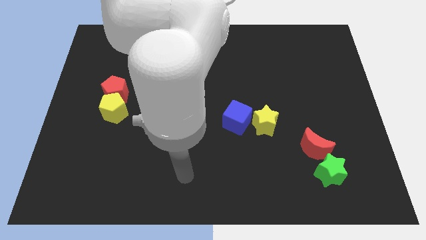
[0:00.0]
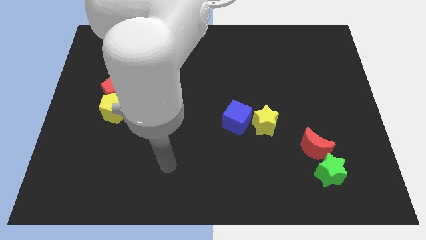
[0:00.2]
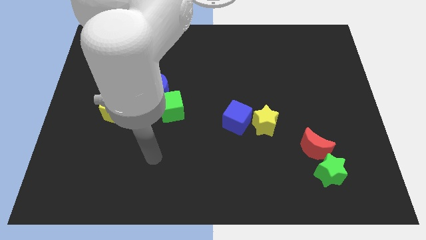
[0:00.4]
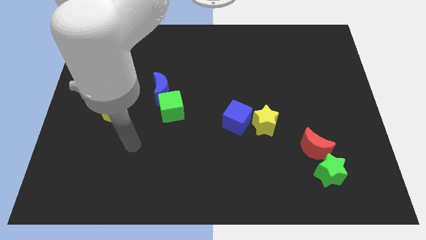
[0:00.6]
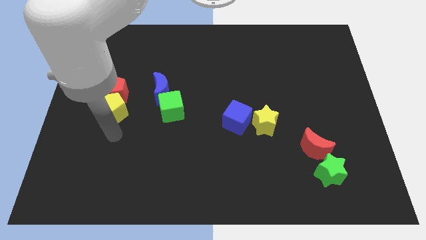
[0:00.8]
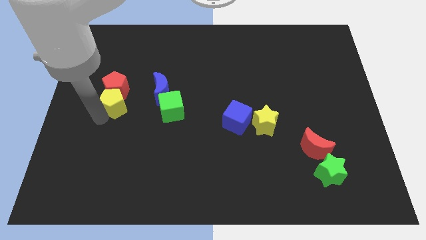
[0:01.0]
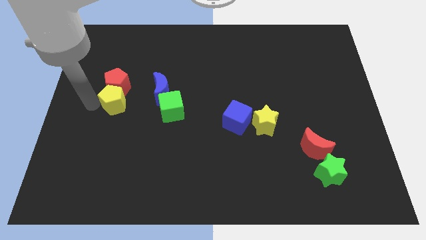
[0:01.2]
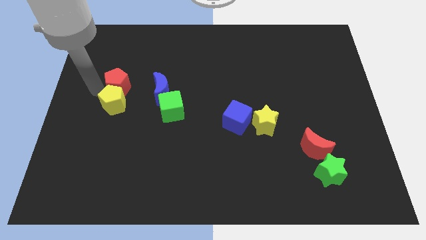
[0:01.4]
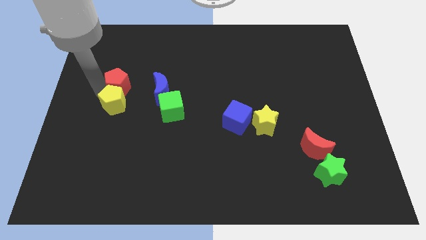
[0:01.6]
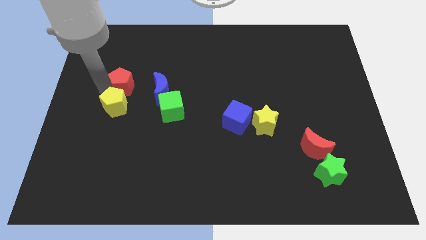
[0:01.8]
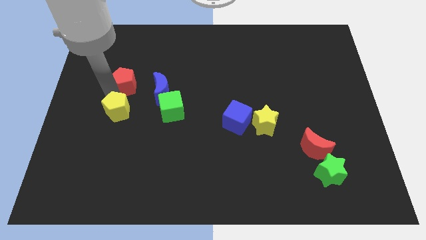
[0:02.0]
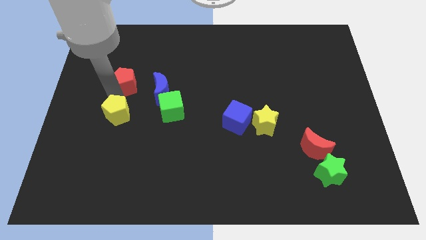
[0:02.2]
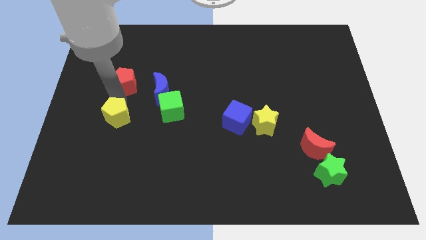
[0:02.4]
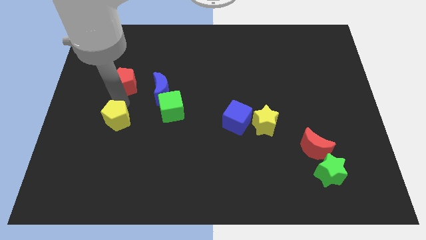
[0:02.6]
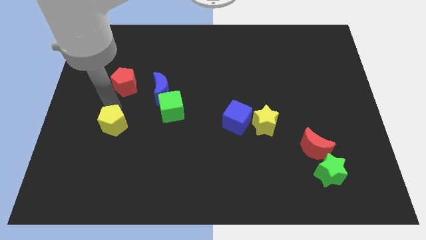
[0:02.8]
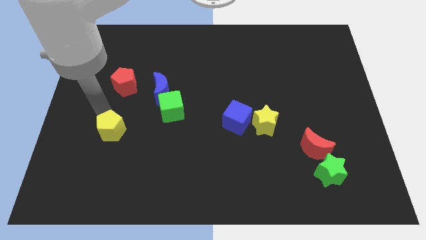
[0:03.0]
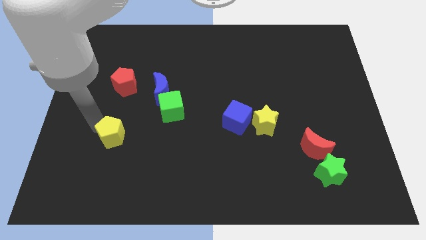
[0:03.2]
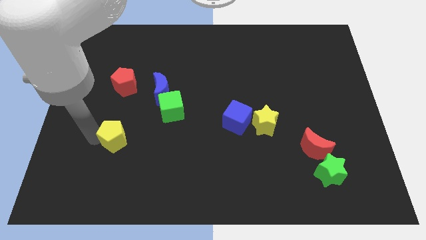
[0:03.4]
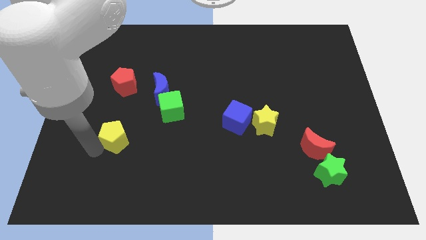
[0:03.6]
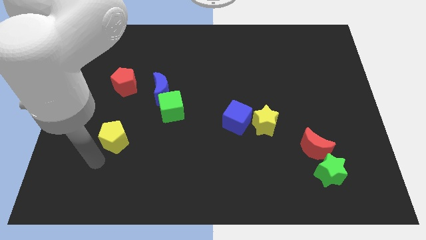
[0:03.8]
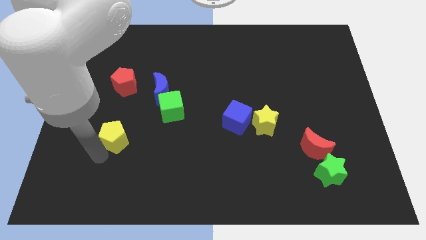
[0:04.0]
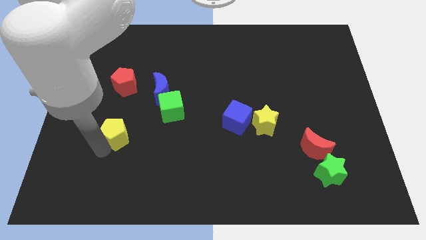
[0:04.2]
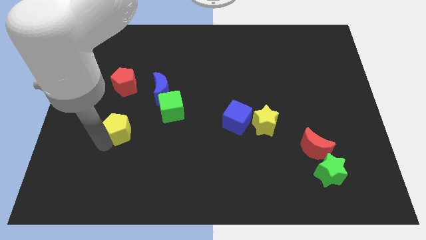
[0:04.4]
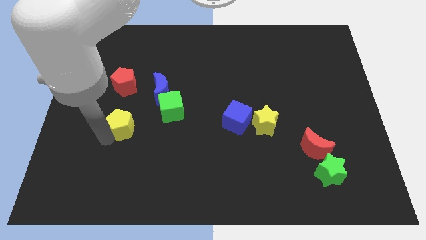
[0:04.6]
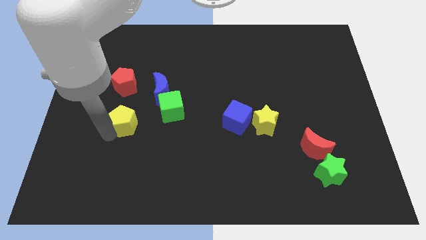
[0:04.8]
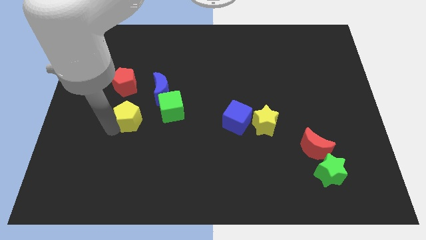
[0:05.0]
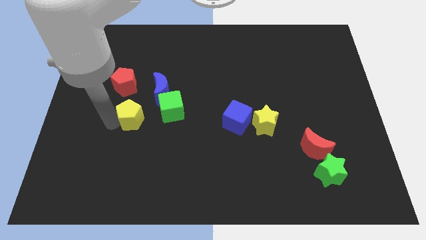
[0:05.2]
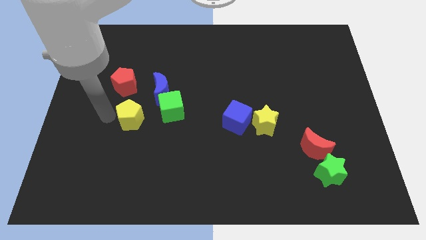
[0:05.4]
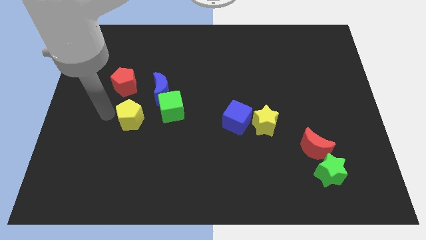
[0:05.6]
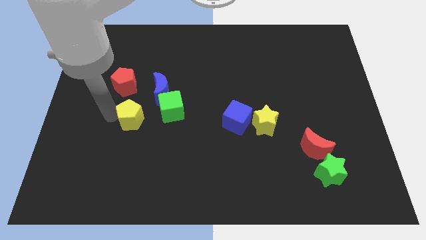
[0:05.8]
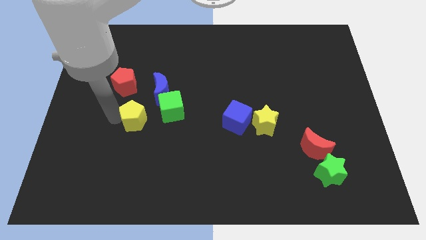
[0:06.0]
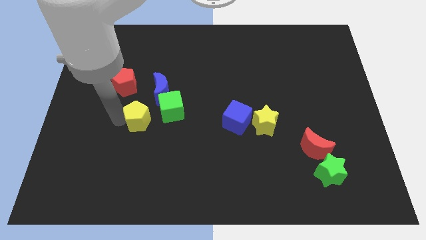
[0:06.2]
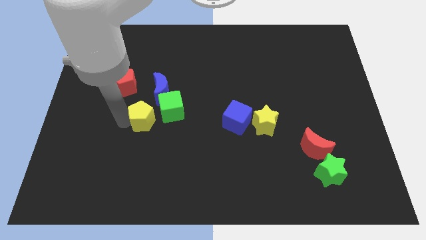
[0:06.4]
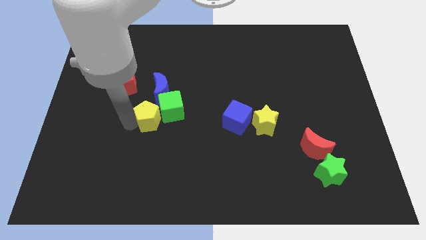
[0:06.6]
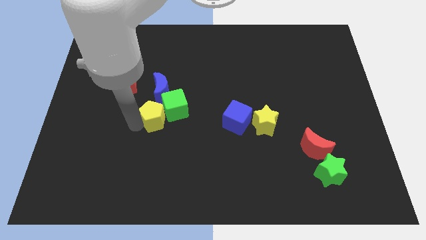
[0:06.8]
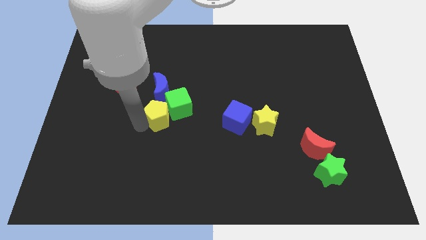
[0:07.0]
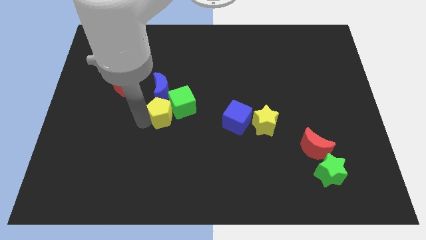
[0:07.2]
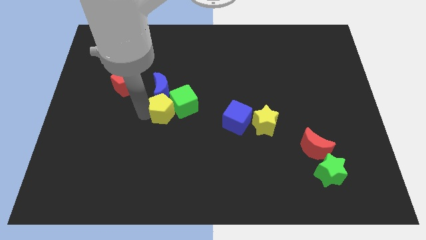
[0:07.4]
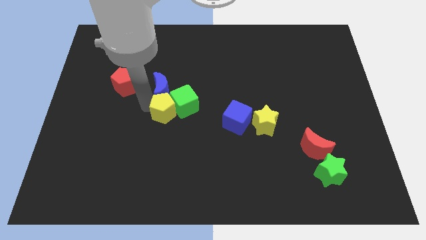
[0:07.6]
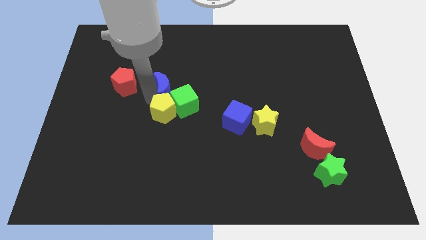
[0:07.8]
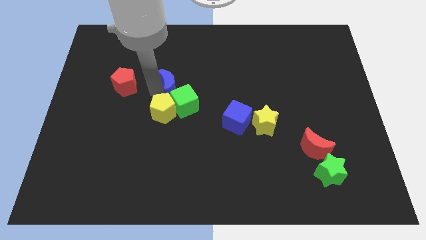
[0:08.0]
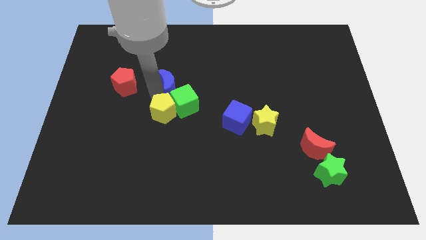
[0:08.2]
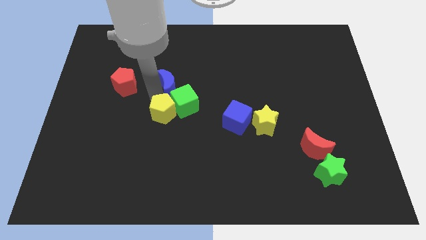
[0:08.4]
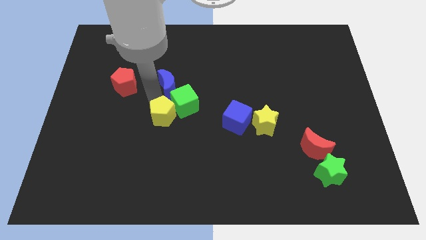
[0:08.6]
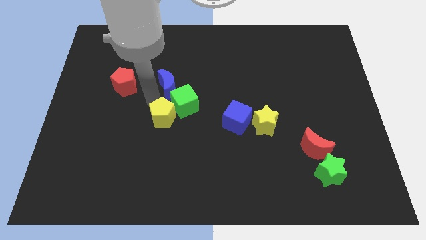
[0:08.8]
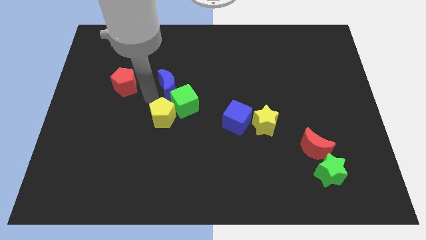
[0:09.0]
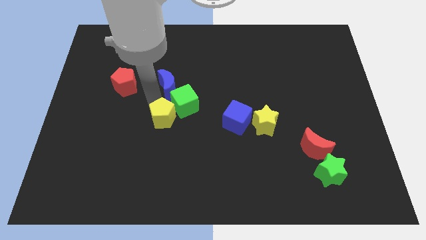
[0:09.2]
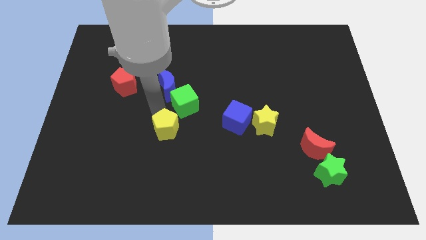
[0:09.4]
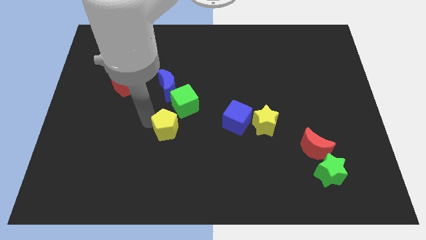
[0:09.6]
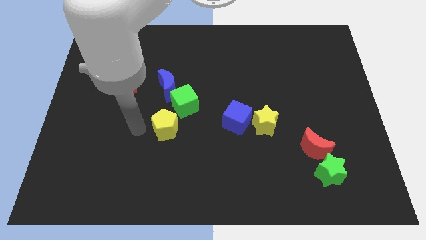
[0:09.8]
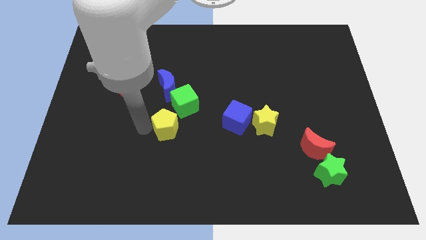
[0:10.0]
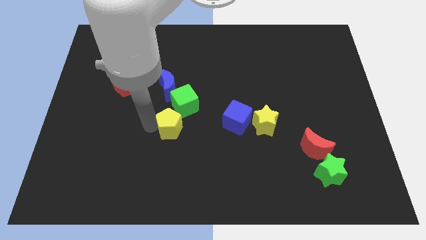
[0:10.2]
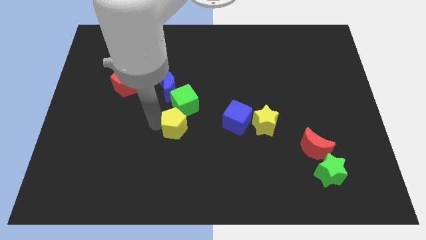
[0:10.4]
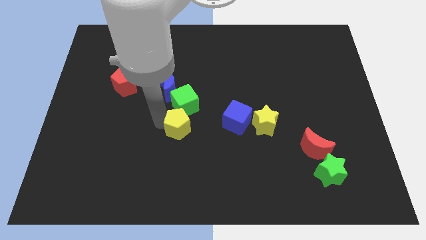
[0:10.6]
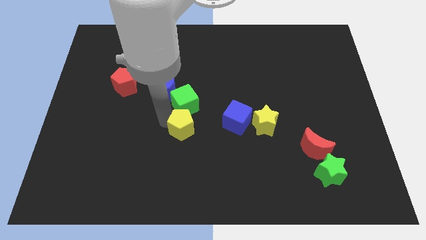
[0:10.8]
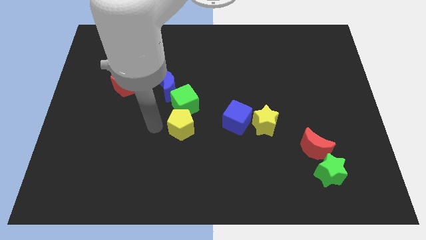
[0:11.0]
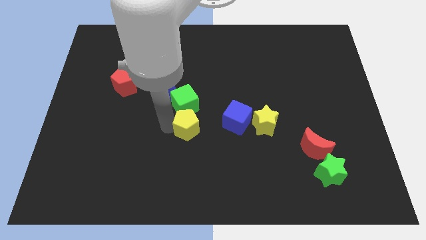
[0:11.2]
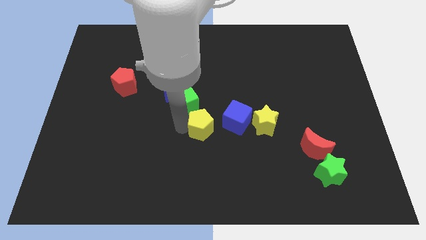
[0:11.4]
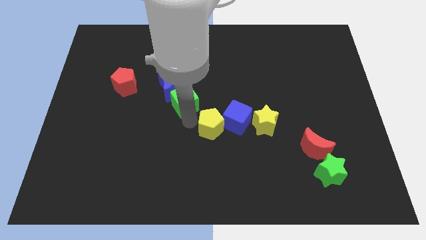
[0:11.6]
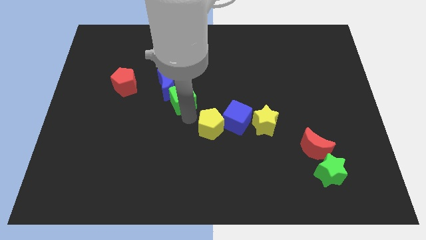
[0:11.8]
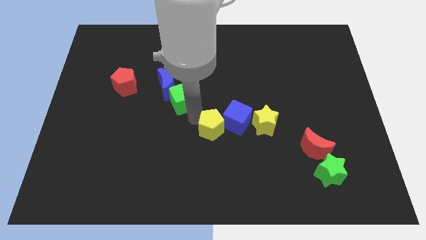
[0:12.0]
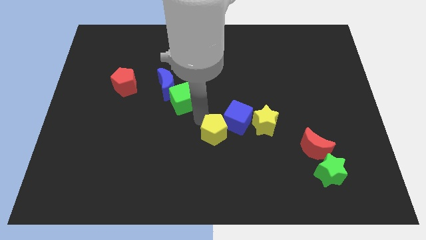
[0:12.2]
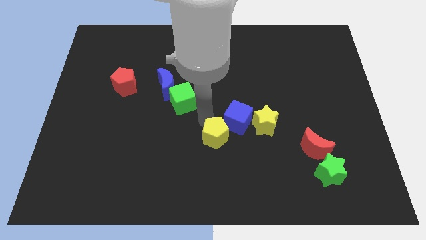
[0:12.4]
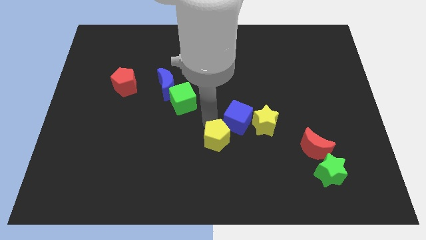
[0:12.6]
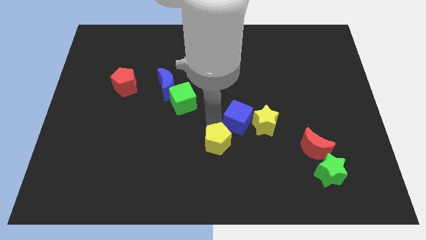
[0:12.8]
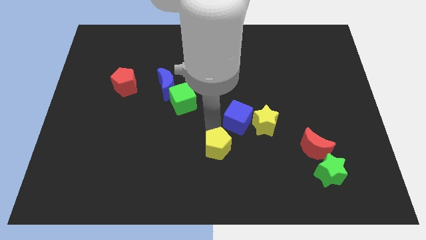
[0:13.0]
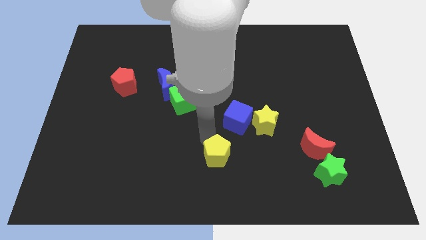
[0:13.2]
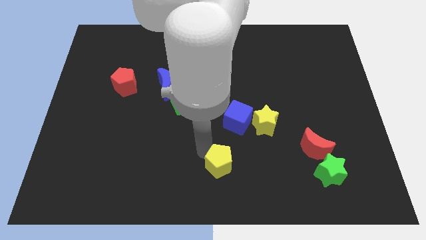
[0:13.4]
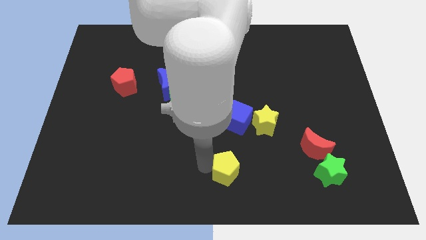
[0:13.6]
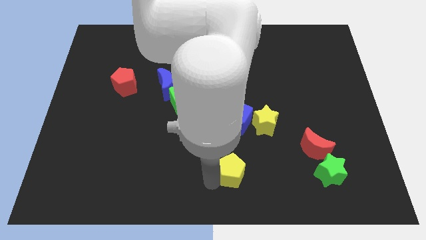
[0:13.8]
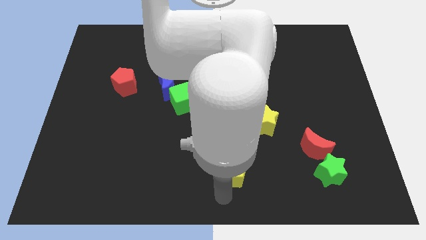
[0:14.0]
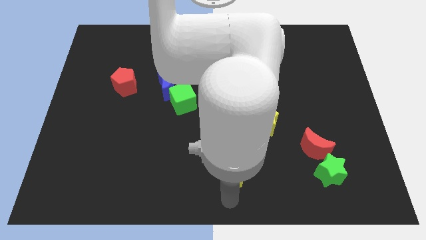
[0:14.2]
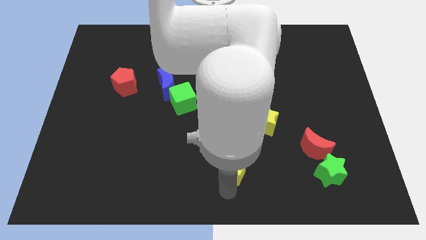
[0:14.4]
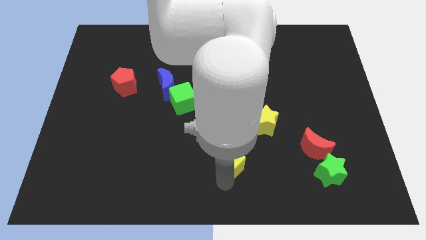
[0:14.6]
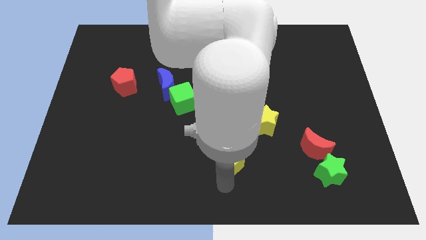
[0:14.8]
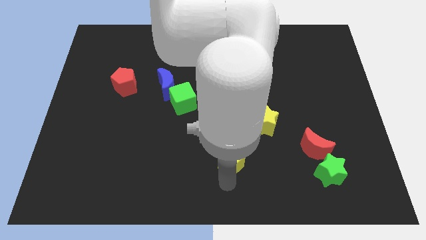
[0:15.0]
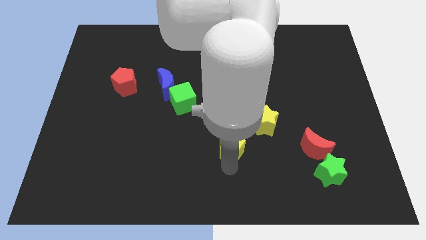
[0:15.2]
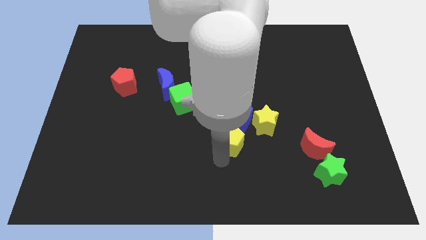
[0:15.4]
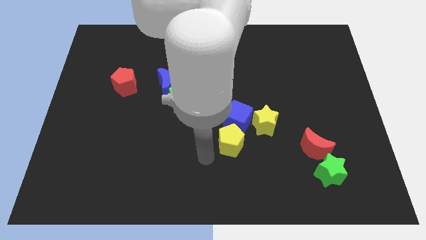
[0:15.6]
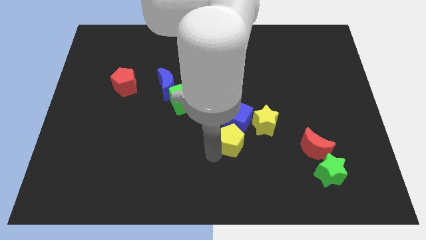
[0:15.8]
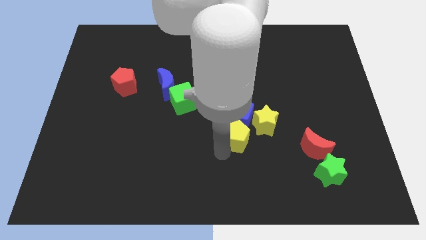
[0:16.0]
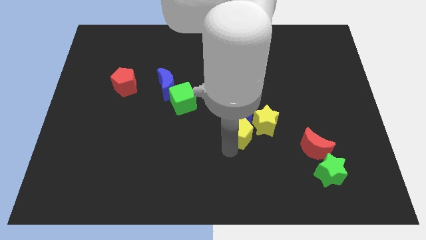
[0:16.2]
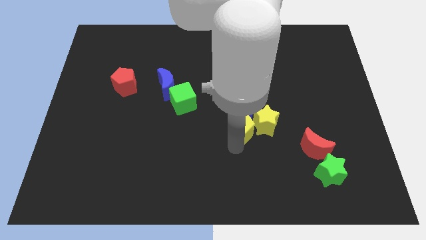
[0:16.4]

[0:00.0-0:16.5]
push the yellow pentagon towards the yellow star
